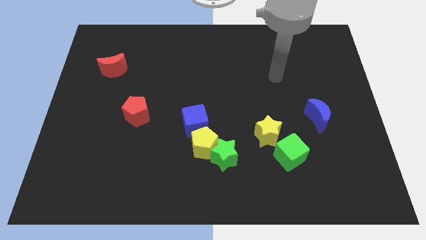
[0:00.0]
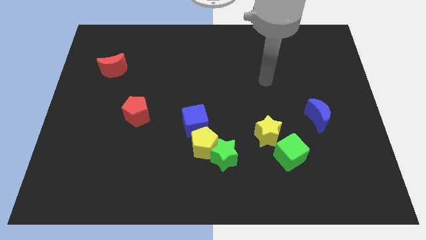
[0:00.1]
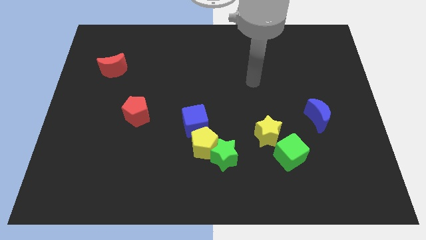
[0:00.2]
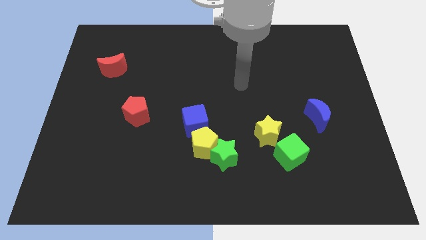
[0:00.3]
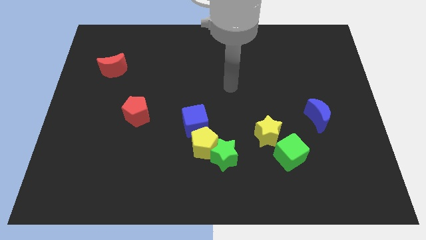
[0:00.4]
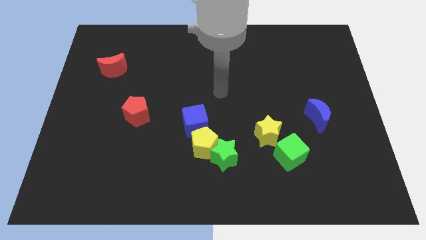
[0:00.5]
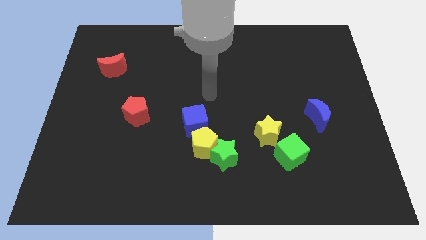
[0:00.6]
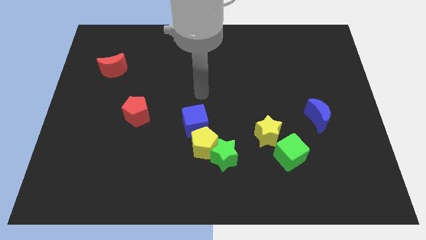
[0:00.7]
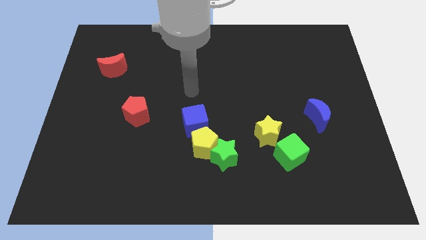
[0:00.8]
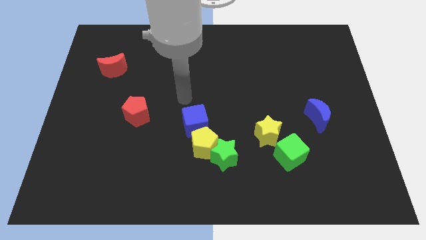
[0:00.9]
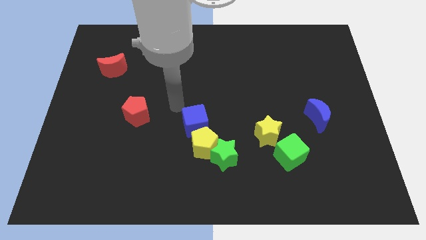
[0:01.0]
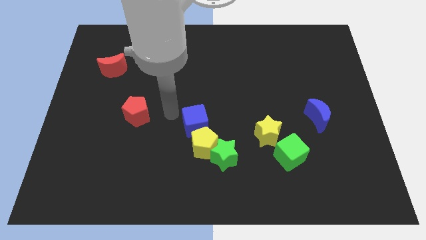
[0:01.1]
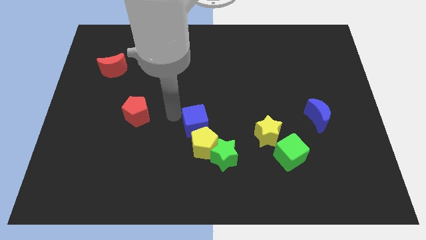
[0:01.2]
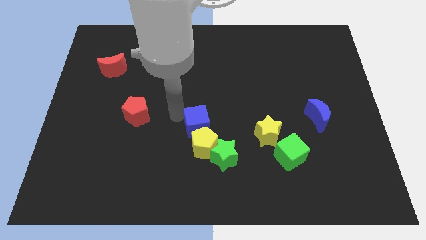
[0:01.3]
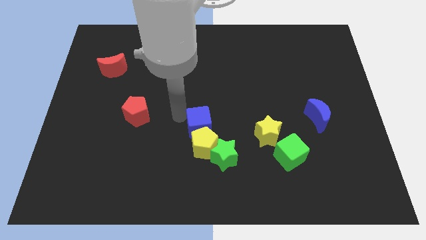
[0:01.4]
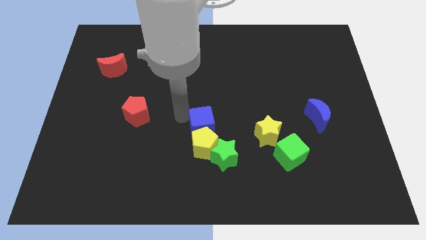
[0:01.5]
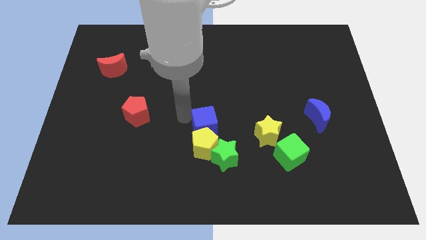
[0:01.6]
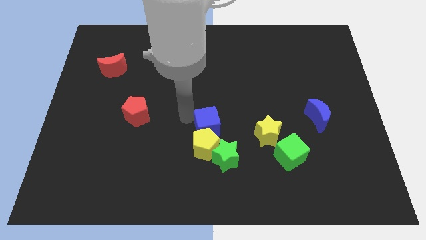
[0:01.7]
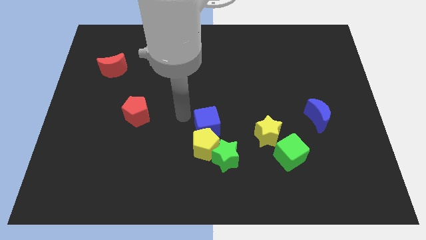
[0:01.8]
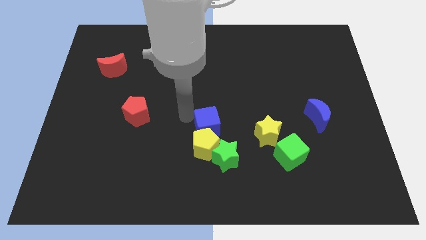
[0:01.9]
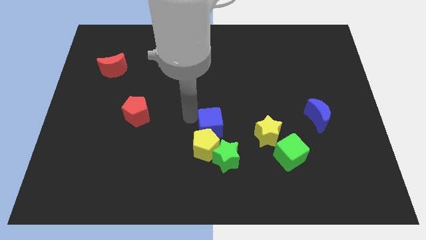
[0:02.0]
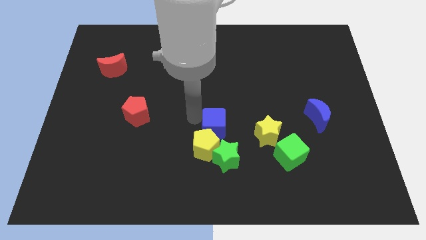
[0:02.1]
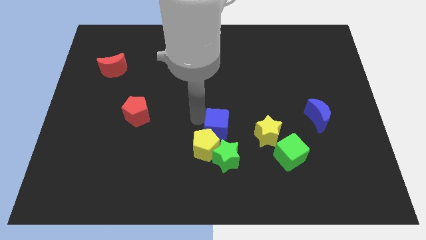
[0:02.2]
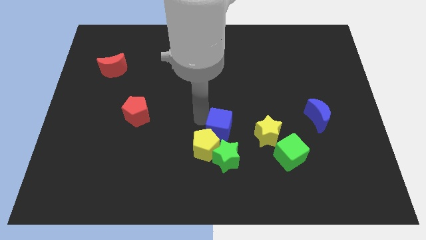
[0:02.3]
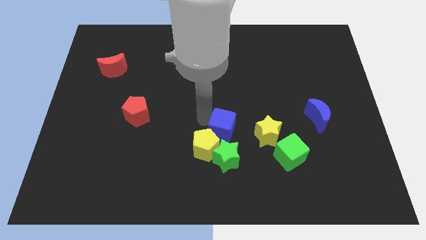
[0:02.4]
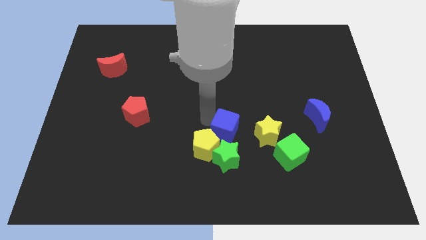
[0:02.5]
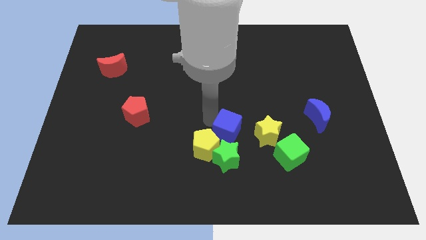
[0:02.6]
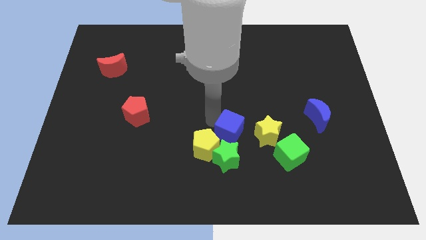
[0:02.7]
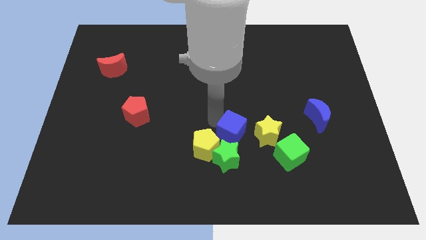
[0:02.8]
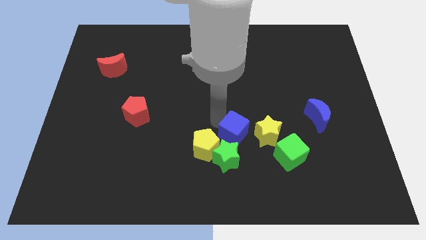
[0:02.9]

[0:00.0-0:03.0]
slide the blue cube down and then right somewhat

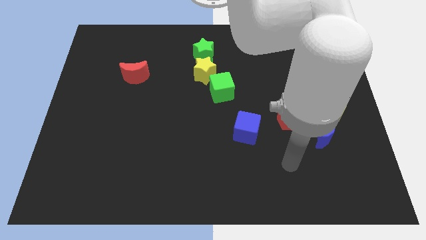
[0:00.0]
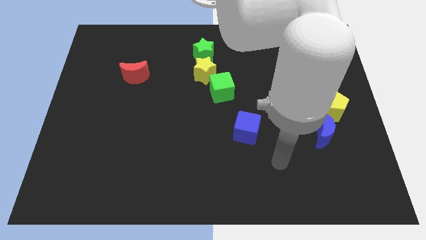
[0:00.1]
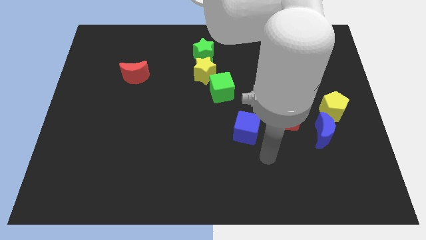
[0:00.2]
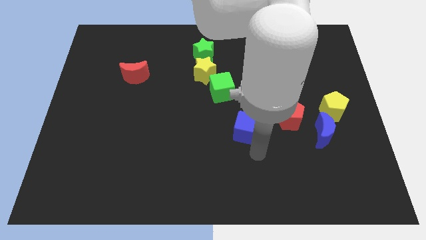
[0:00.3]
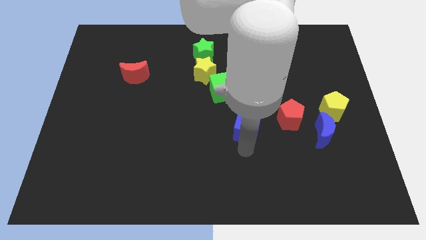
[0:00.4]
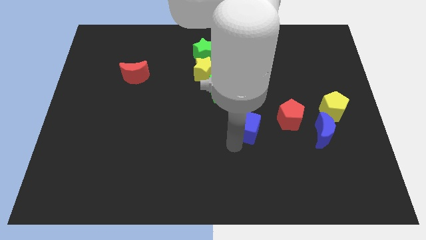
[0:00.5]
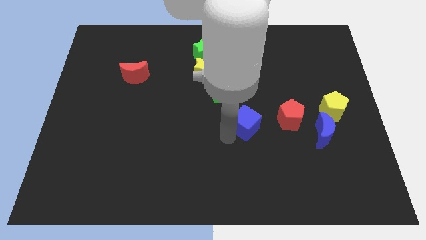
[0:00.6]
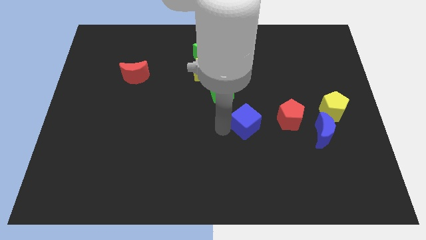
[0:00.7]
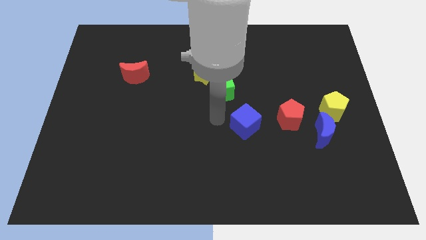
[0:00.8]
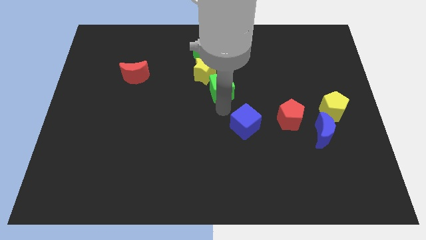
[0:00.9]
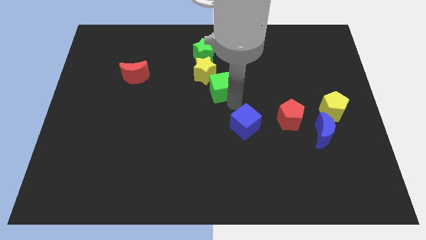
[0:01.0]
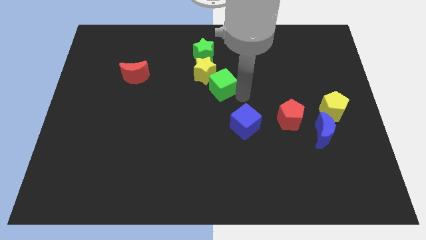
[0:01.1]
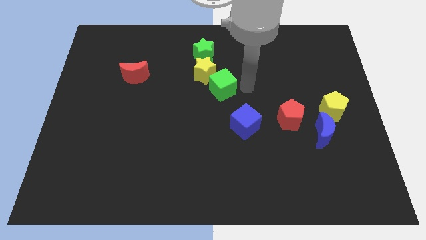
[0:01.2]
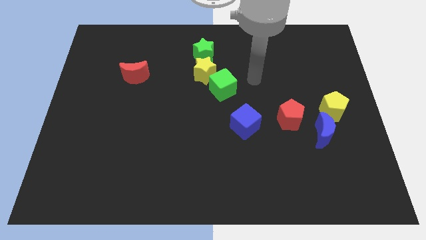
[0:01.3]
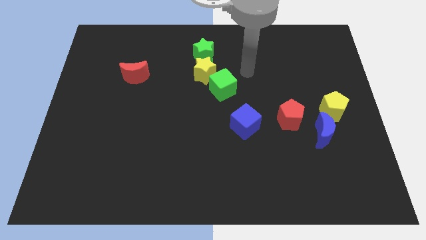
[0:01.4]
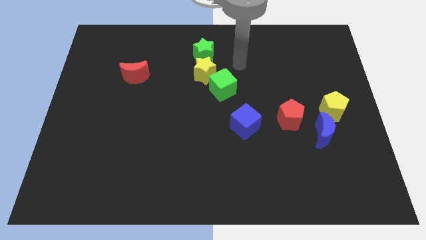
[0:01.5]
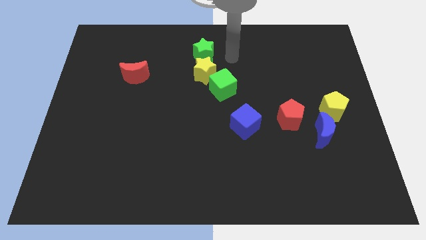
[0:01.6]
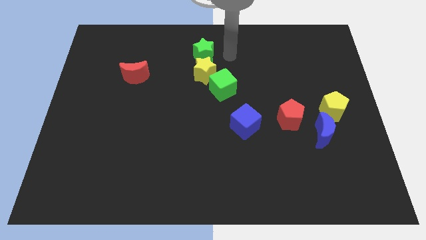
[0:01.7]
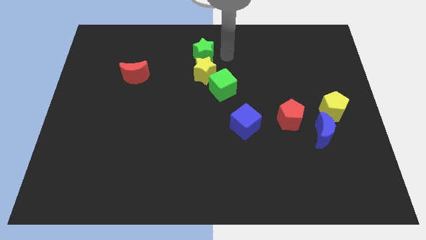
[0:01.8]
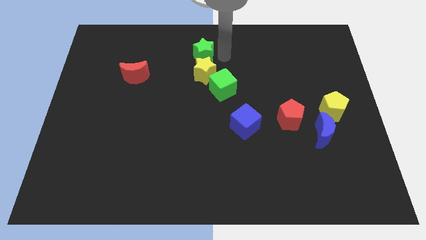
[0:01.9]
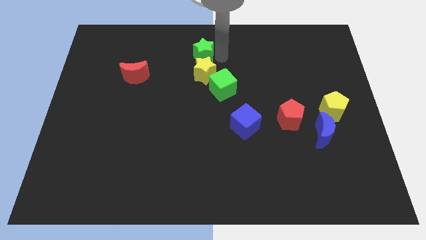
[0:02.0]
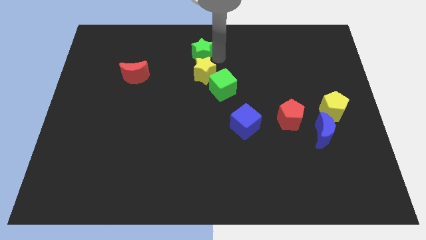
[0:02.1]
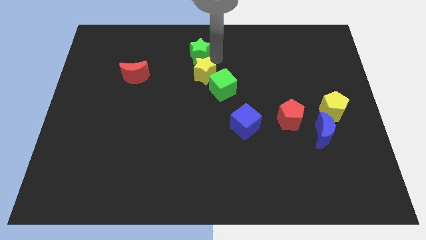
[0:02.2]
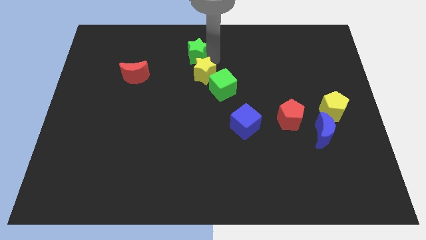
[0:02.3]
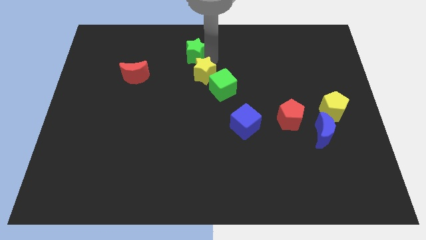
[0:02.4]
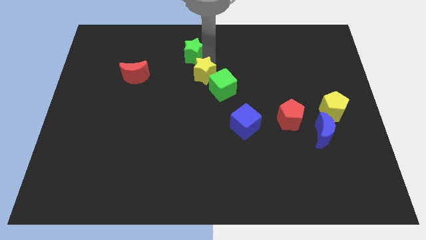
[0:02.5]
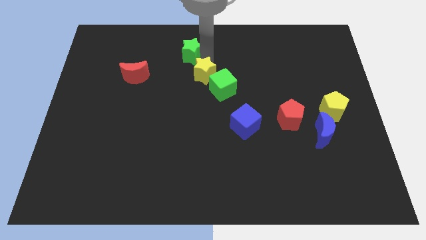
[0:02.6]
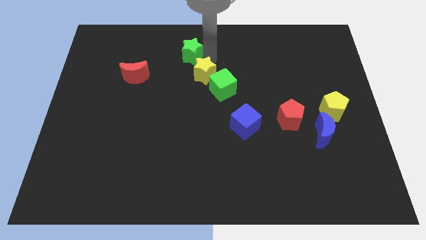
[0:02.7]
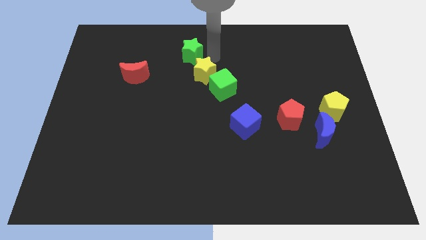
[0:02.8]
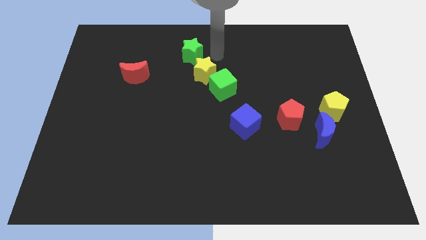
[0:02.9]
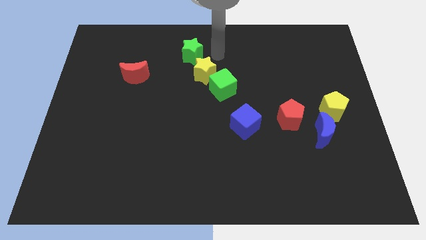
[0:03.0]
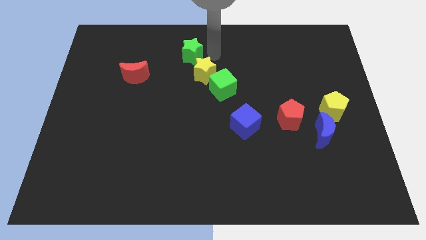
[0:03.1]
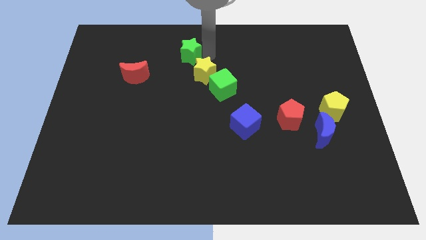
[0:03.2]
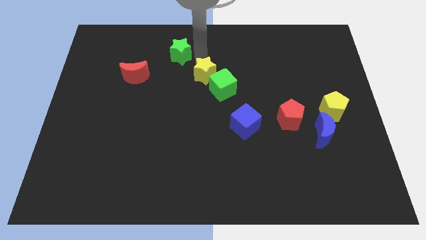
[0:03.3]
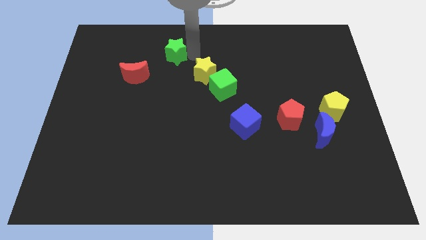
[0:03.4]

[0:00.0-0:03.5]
move the green star a little left

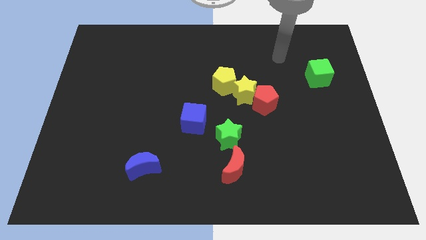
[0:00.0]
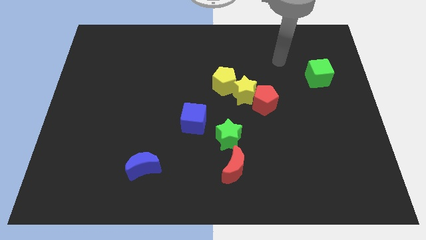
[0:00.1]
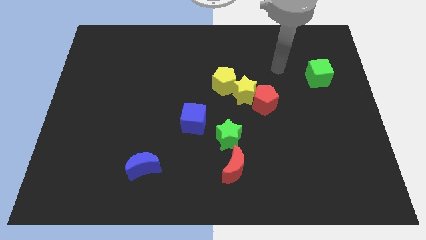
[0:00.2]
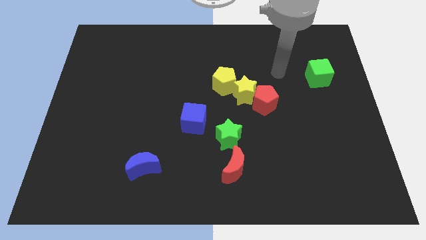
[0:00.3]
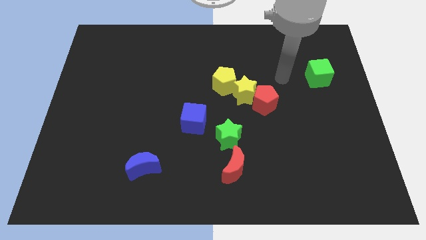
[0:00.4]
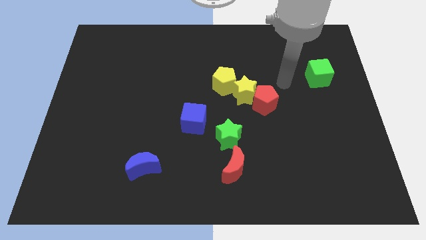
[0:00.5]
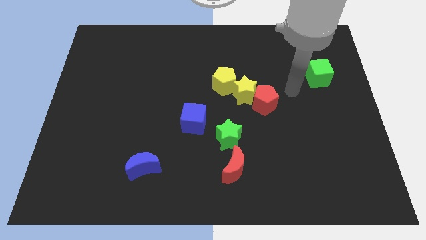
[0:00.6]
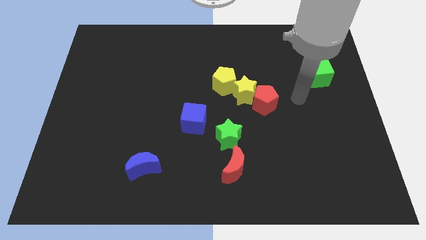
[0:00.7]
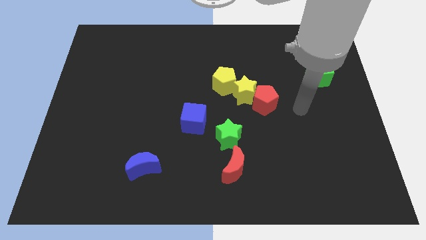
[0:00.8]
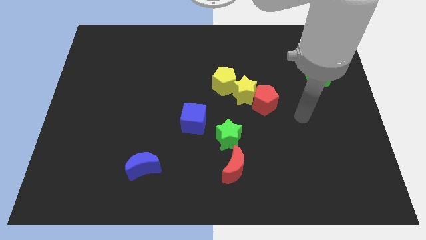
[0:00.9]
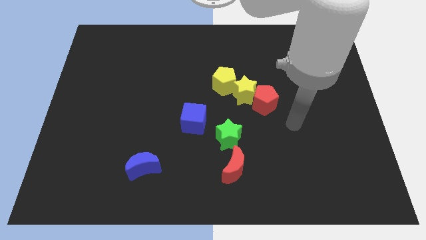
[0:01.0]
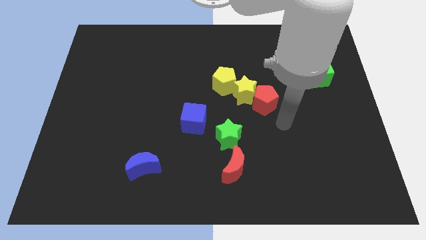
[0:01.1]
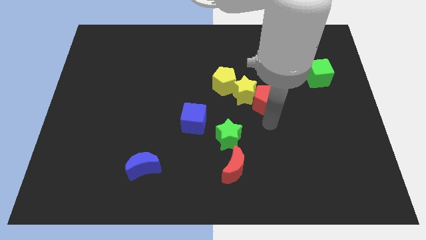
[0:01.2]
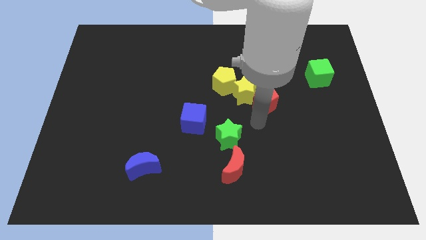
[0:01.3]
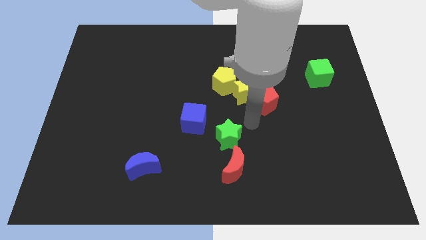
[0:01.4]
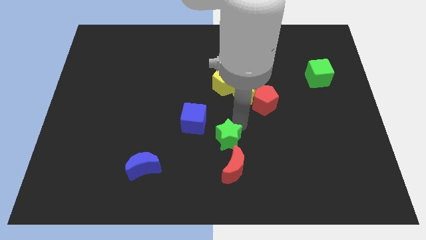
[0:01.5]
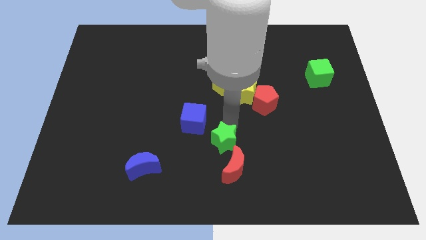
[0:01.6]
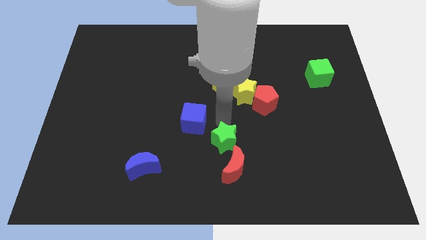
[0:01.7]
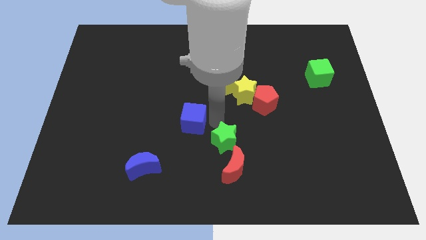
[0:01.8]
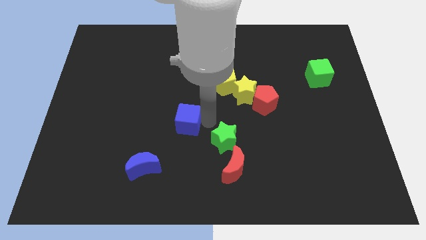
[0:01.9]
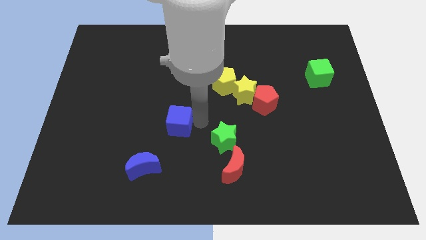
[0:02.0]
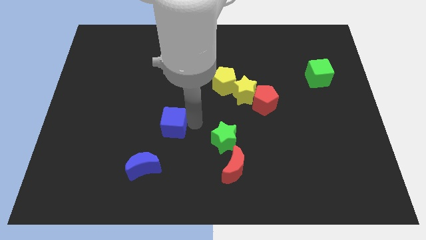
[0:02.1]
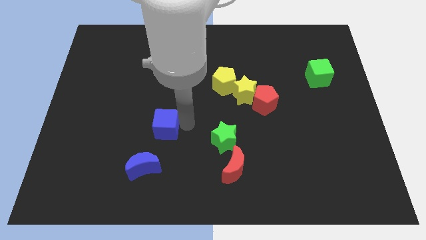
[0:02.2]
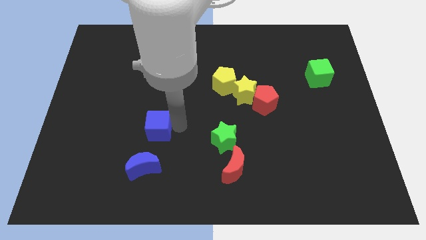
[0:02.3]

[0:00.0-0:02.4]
slide the blue cube left slightly
